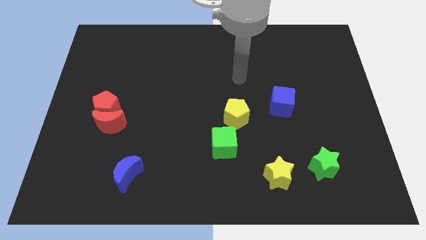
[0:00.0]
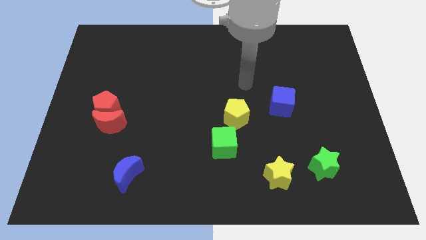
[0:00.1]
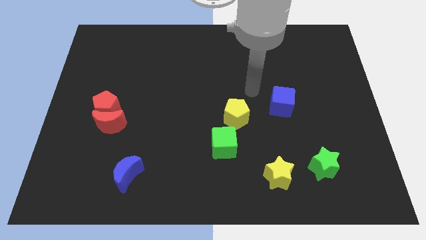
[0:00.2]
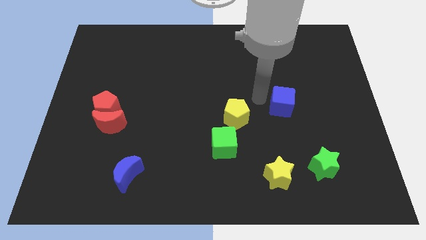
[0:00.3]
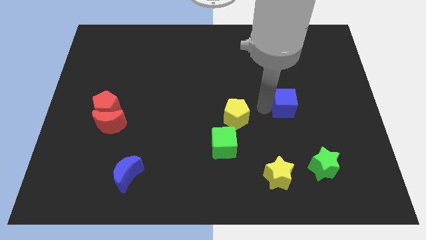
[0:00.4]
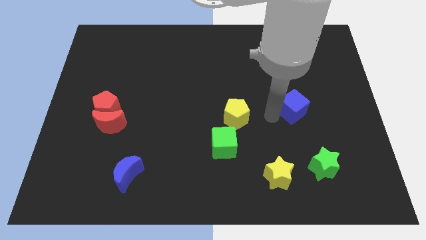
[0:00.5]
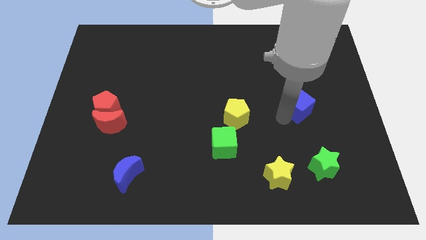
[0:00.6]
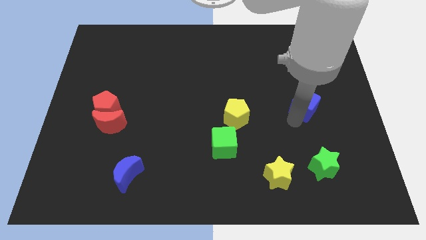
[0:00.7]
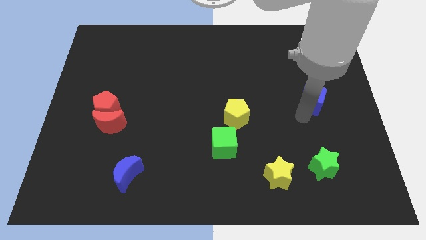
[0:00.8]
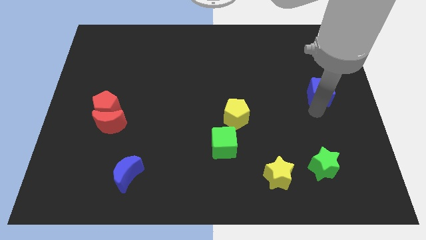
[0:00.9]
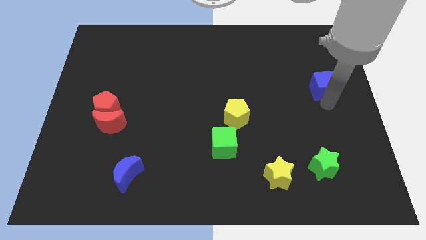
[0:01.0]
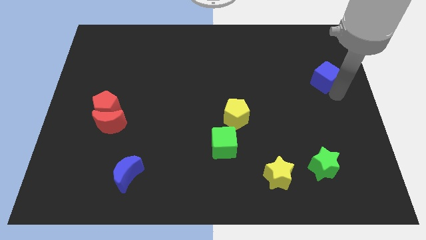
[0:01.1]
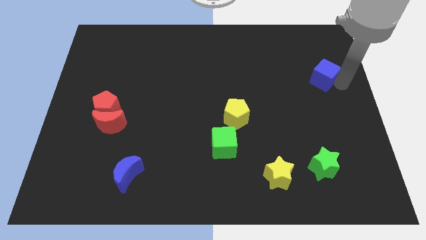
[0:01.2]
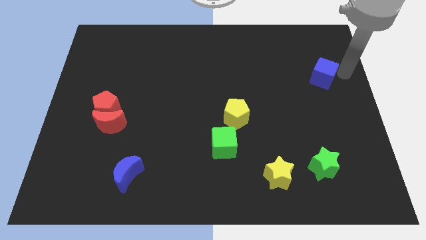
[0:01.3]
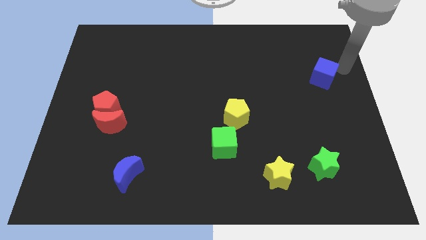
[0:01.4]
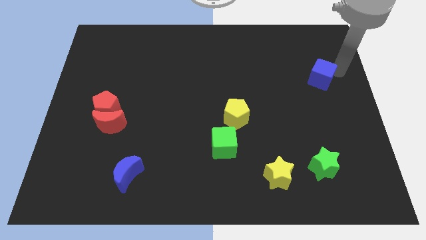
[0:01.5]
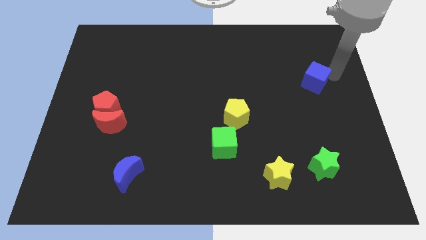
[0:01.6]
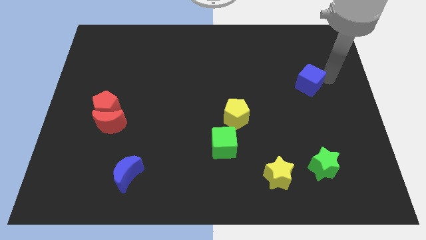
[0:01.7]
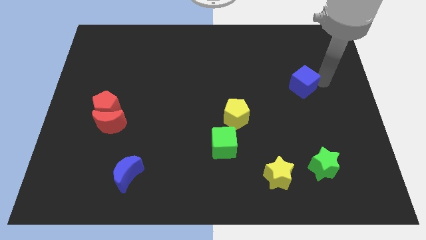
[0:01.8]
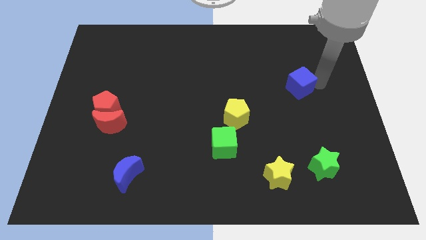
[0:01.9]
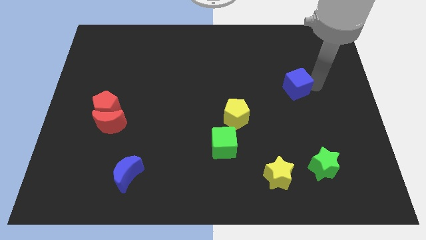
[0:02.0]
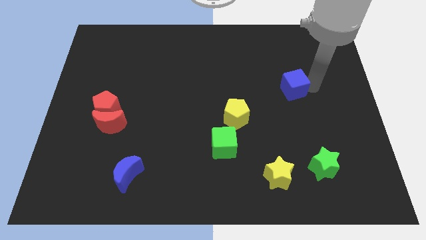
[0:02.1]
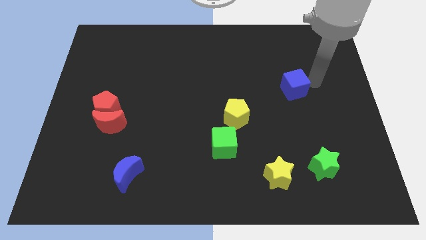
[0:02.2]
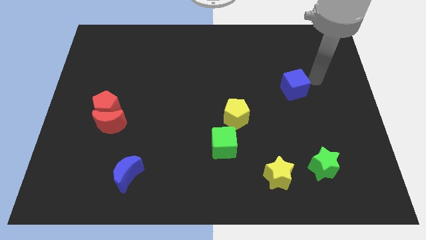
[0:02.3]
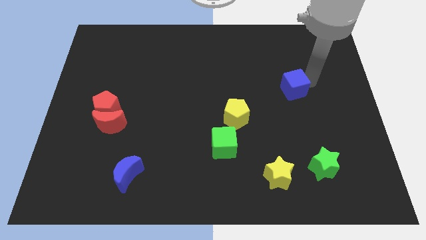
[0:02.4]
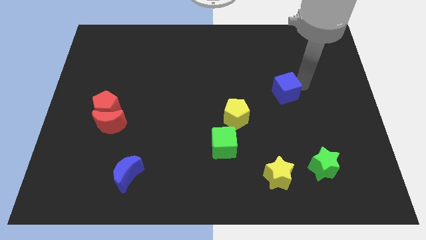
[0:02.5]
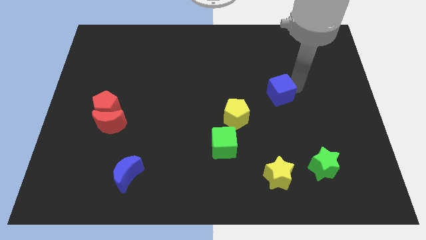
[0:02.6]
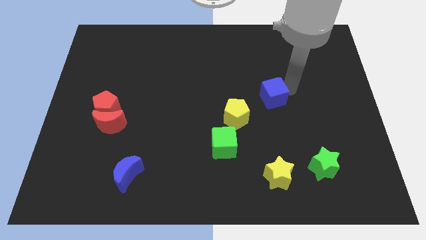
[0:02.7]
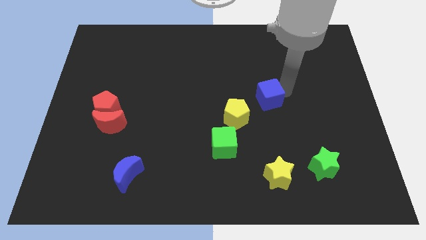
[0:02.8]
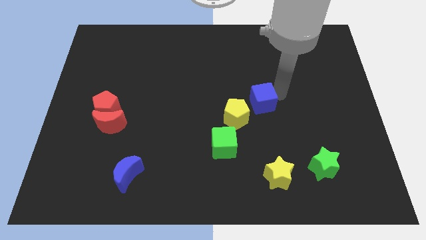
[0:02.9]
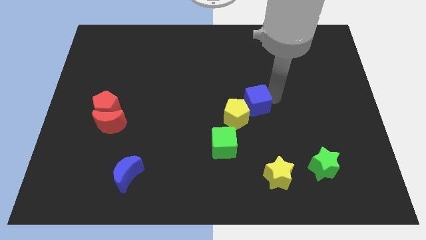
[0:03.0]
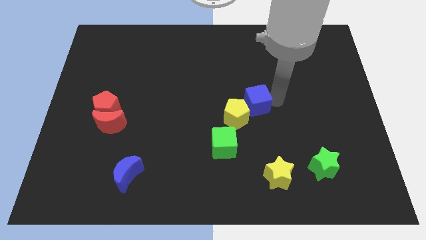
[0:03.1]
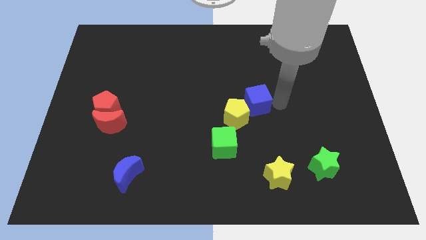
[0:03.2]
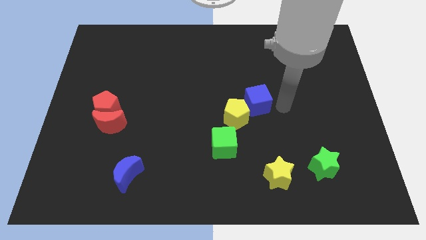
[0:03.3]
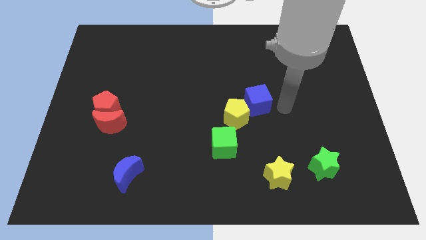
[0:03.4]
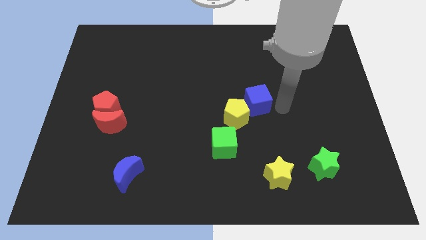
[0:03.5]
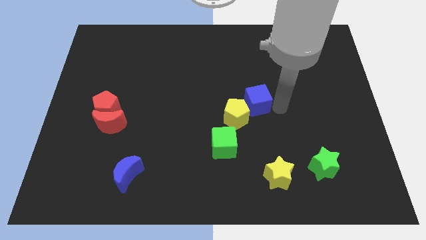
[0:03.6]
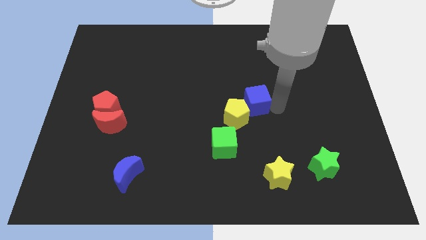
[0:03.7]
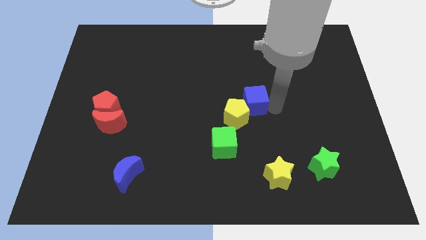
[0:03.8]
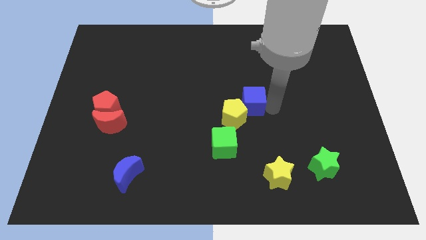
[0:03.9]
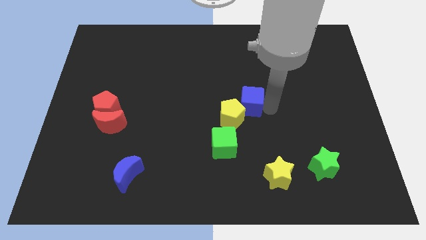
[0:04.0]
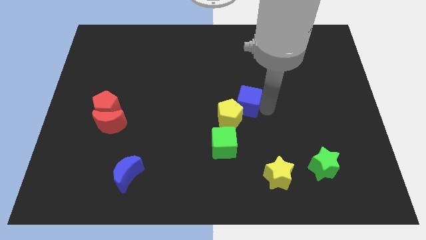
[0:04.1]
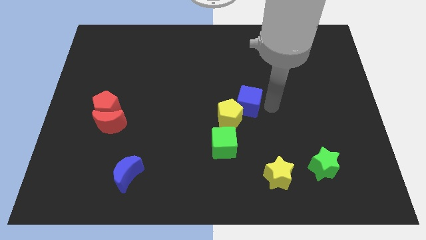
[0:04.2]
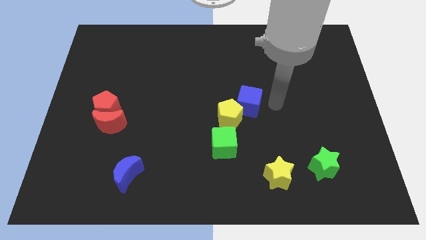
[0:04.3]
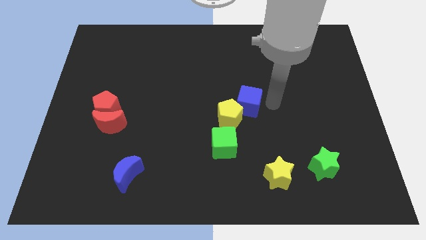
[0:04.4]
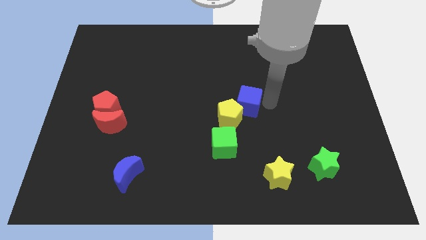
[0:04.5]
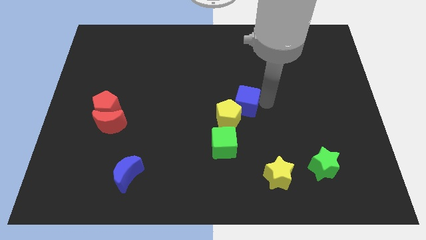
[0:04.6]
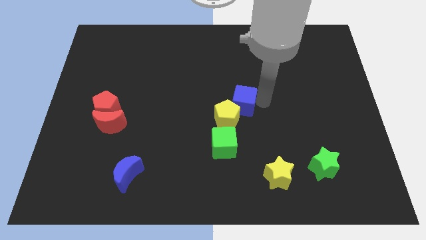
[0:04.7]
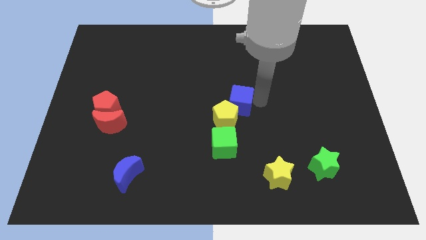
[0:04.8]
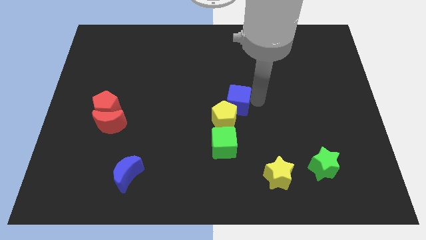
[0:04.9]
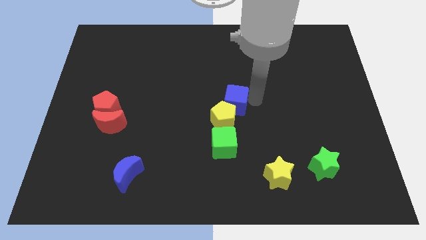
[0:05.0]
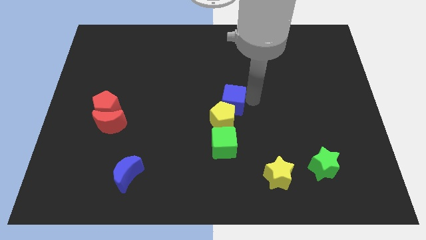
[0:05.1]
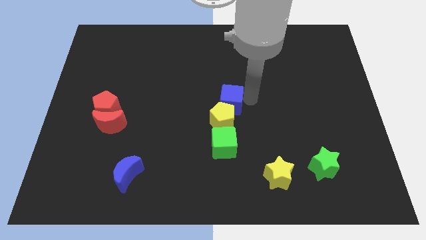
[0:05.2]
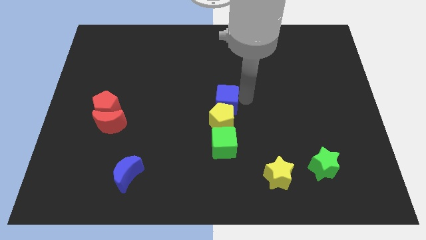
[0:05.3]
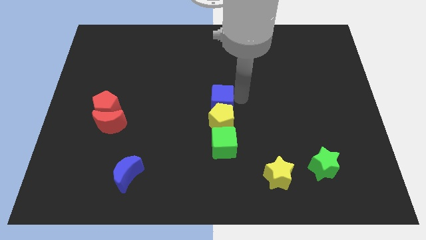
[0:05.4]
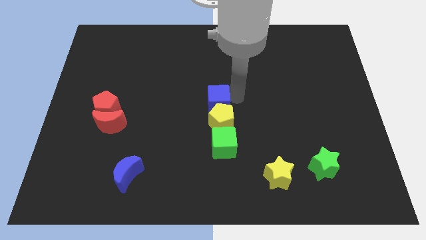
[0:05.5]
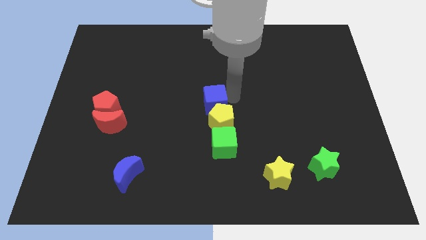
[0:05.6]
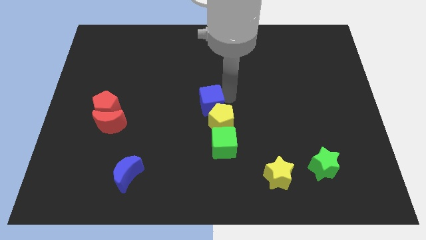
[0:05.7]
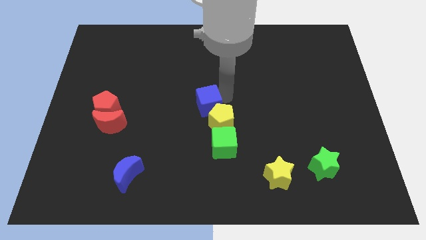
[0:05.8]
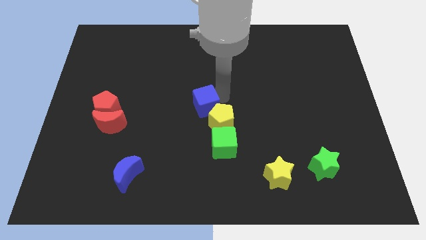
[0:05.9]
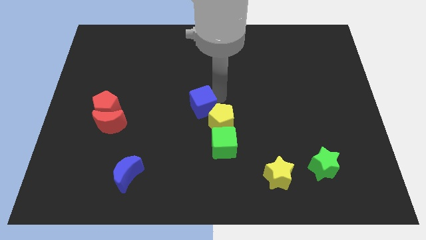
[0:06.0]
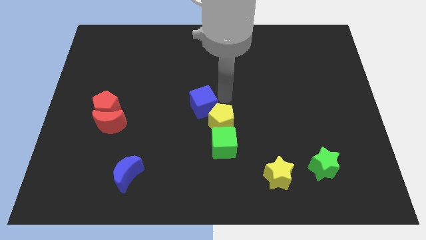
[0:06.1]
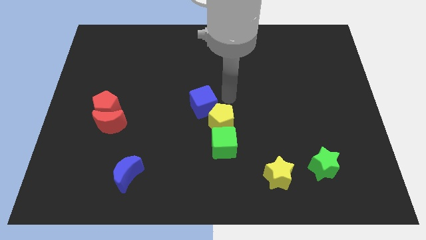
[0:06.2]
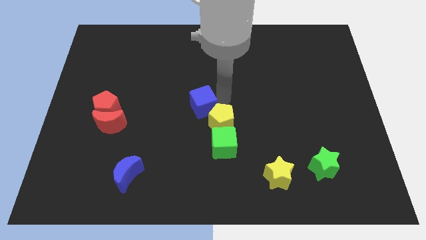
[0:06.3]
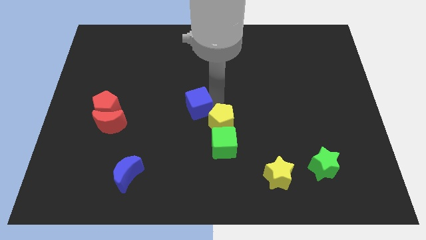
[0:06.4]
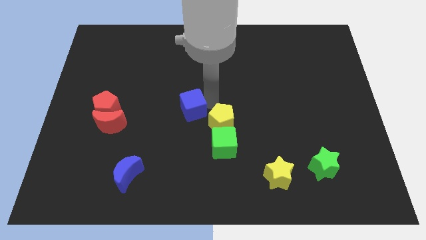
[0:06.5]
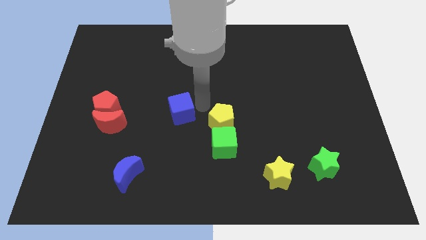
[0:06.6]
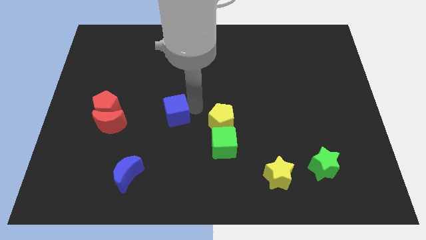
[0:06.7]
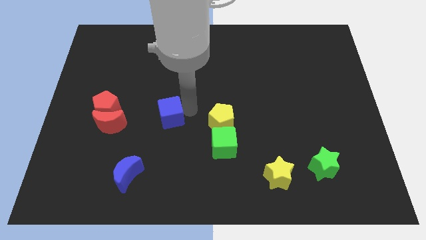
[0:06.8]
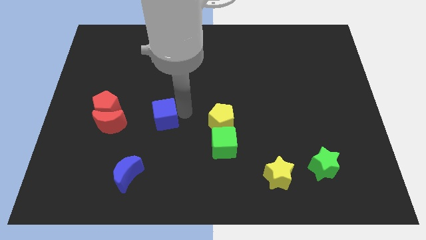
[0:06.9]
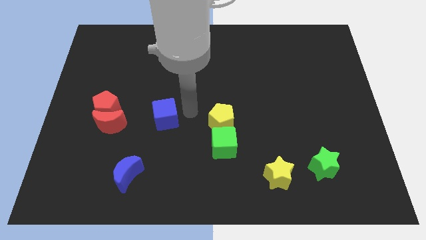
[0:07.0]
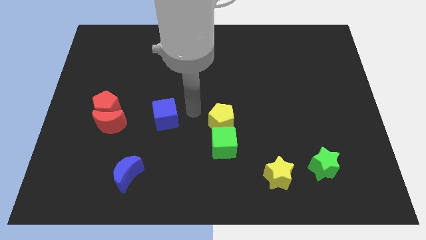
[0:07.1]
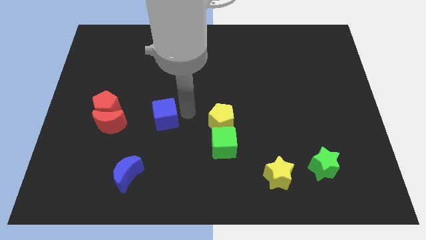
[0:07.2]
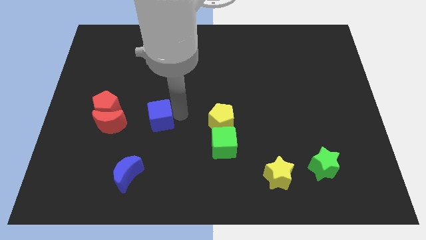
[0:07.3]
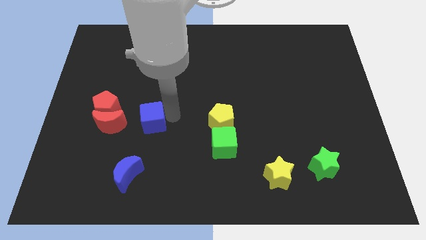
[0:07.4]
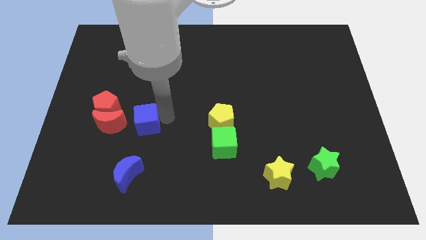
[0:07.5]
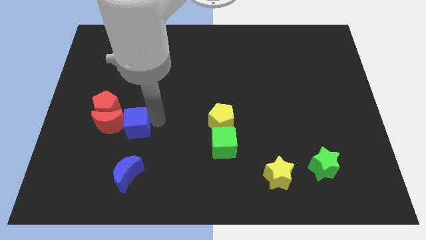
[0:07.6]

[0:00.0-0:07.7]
push the blue cube close to the red moon
